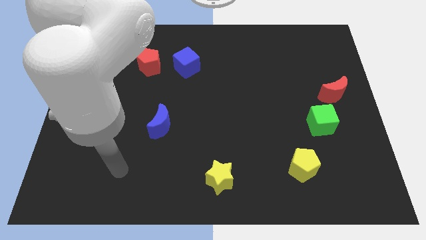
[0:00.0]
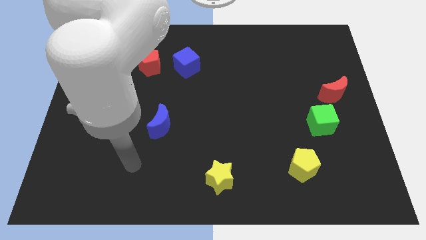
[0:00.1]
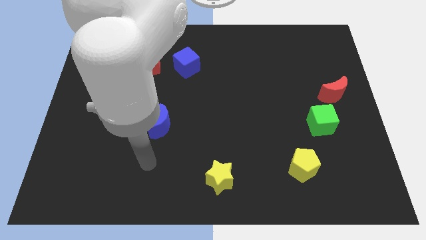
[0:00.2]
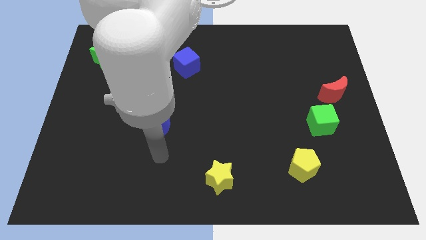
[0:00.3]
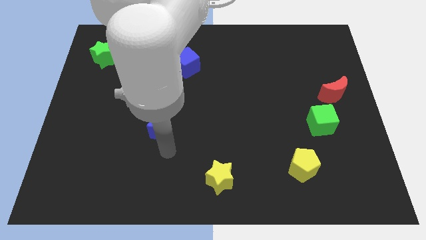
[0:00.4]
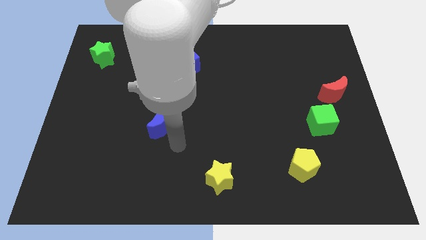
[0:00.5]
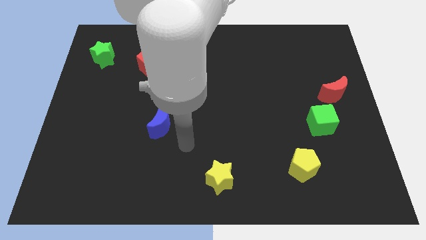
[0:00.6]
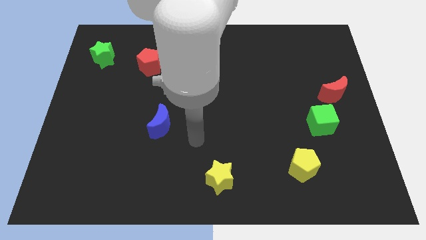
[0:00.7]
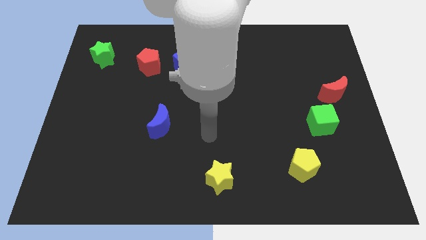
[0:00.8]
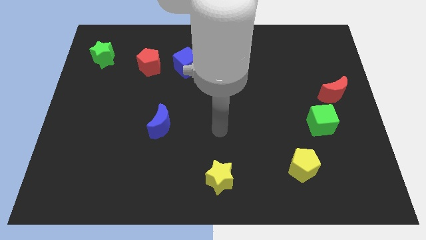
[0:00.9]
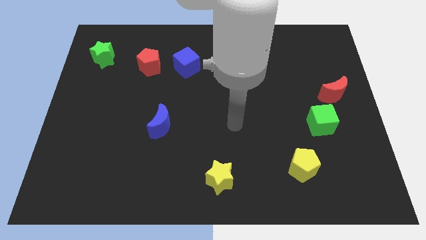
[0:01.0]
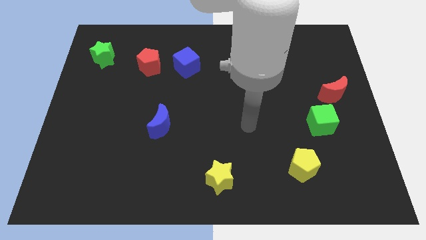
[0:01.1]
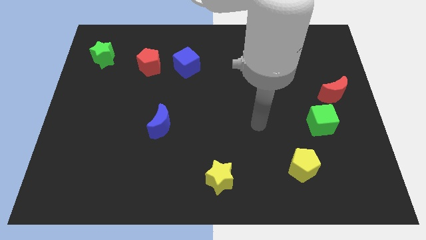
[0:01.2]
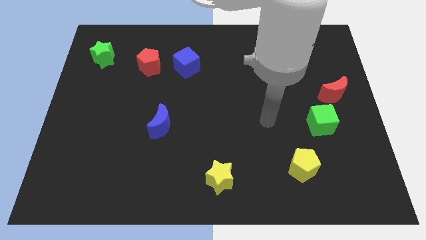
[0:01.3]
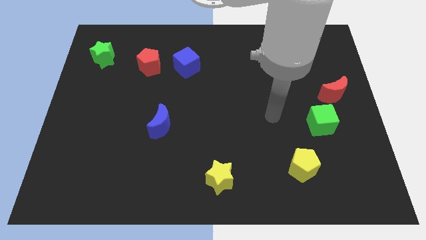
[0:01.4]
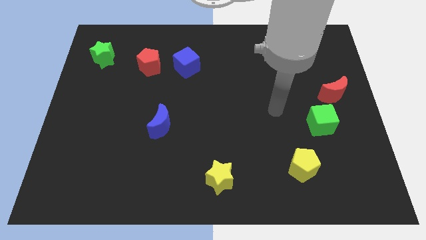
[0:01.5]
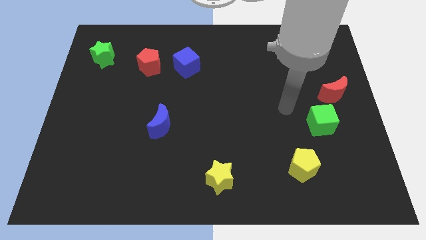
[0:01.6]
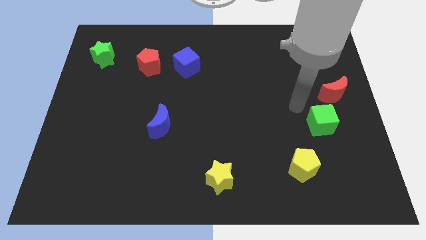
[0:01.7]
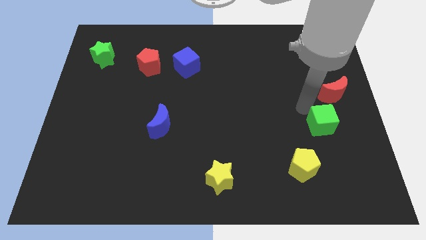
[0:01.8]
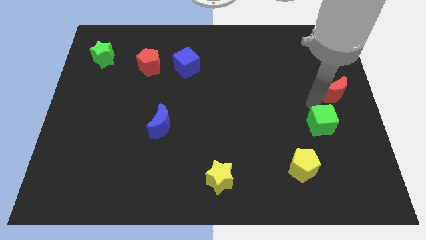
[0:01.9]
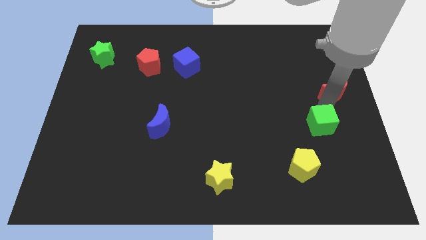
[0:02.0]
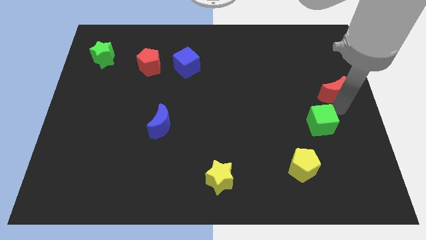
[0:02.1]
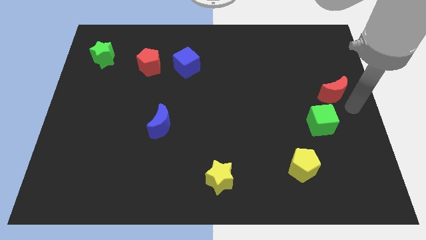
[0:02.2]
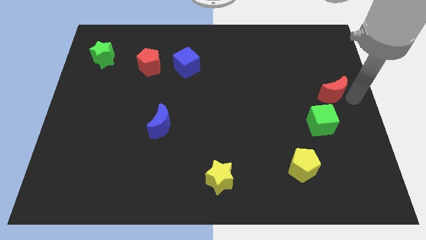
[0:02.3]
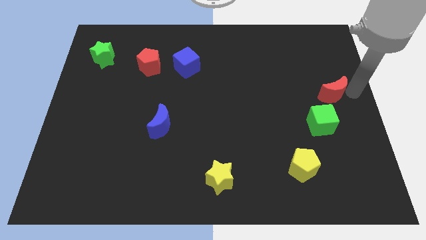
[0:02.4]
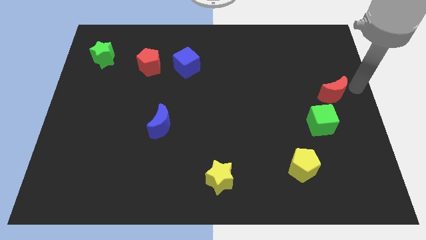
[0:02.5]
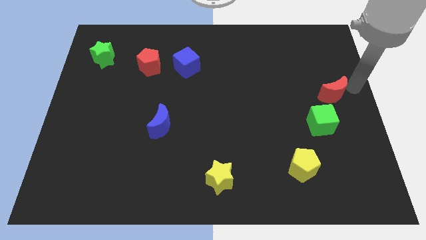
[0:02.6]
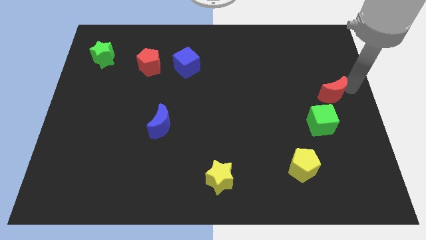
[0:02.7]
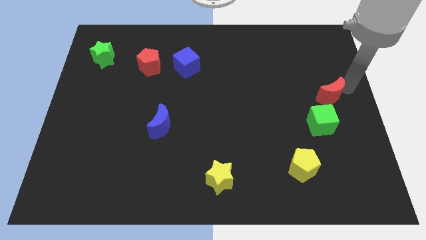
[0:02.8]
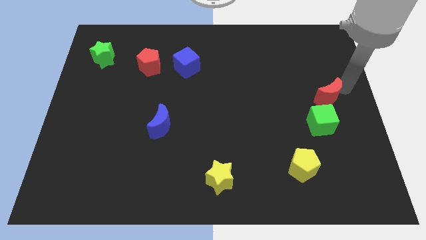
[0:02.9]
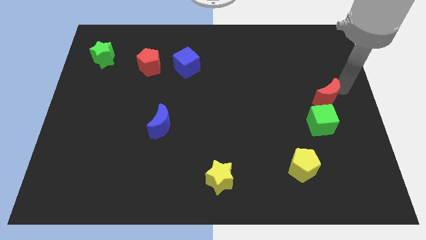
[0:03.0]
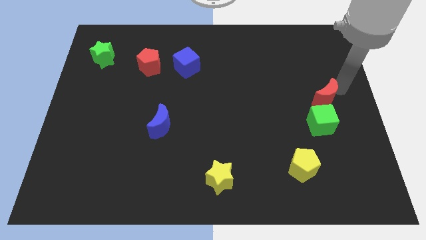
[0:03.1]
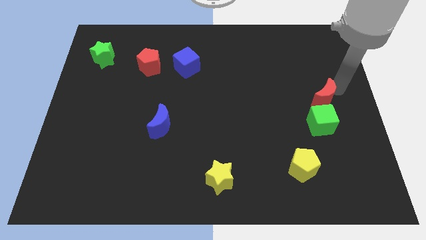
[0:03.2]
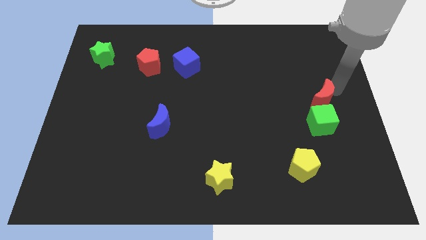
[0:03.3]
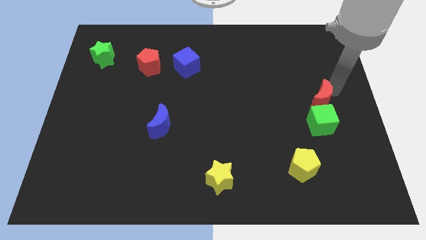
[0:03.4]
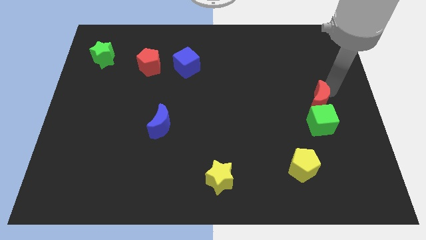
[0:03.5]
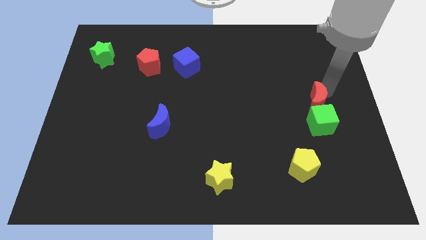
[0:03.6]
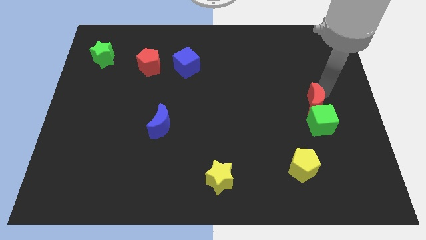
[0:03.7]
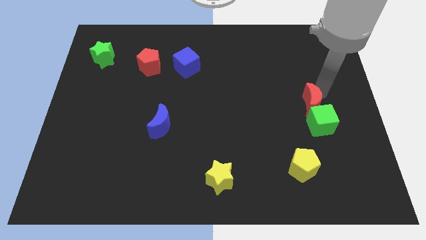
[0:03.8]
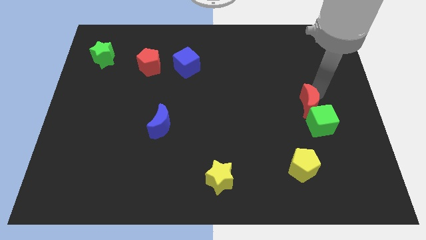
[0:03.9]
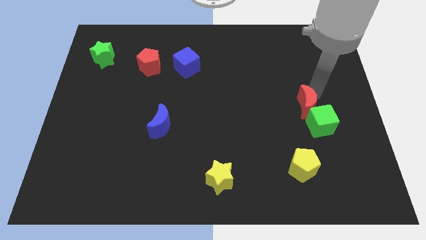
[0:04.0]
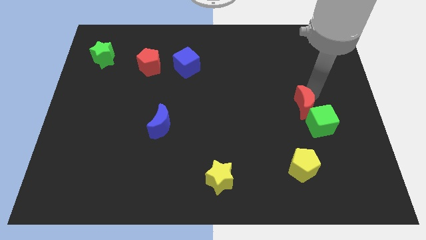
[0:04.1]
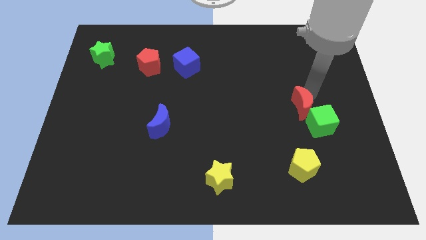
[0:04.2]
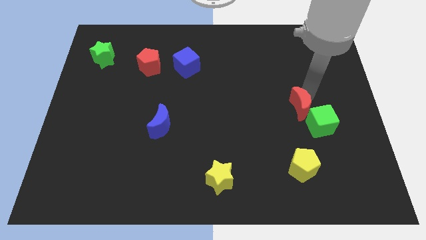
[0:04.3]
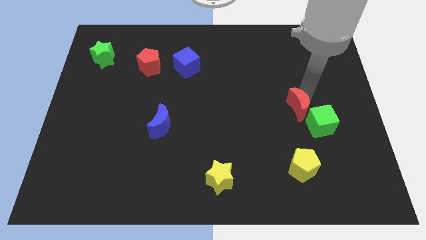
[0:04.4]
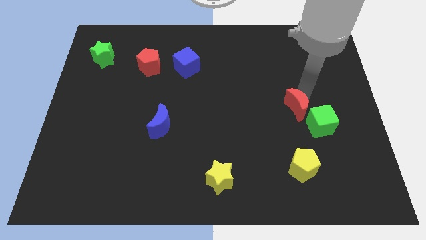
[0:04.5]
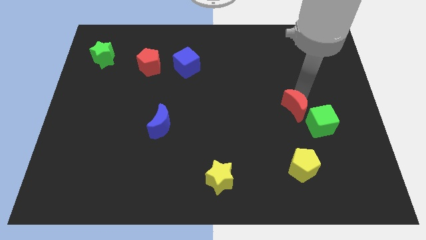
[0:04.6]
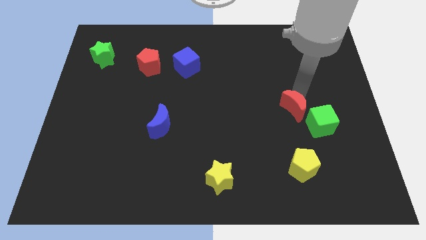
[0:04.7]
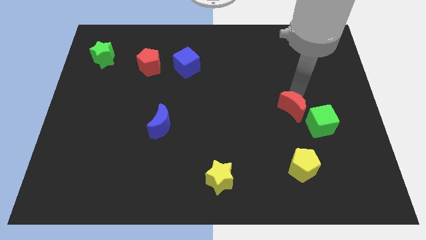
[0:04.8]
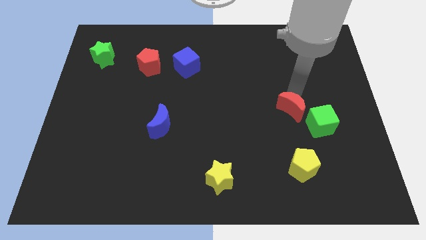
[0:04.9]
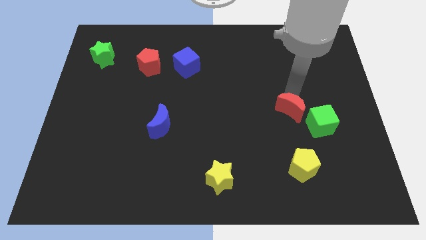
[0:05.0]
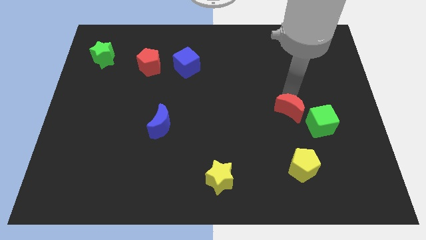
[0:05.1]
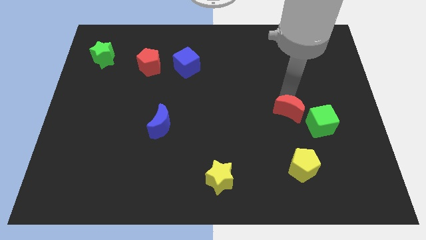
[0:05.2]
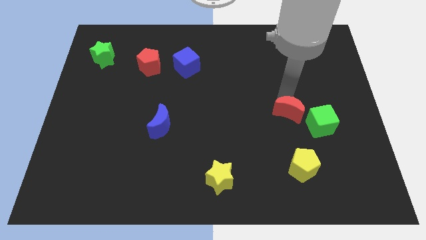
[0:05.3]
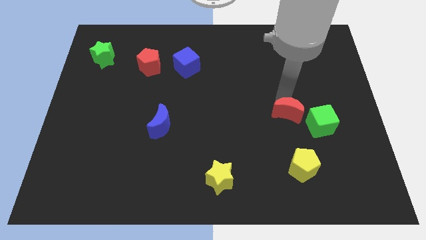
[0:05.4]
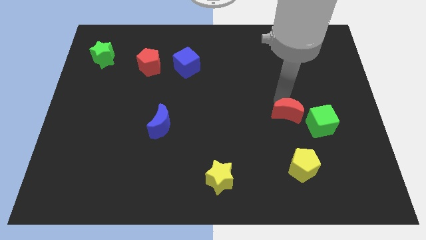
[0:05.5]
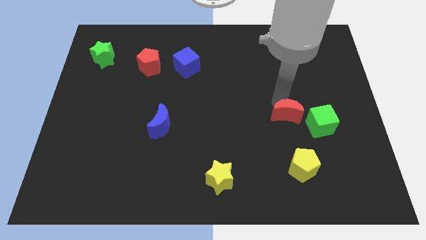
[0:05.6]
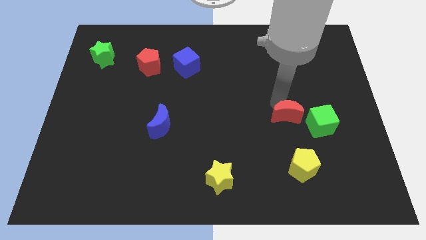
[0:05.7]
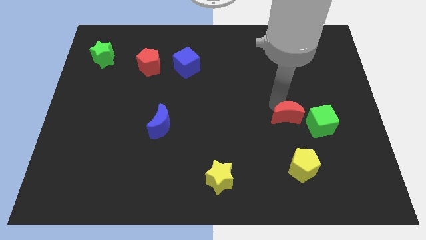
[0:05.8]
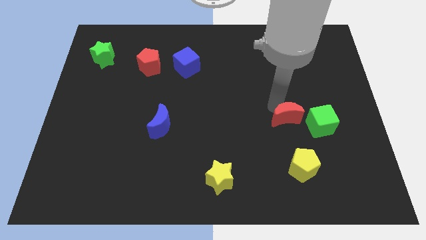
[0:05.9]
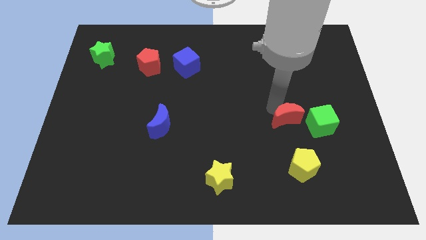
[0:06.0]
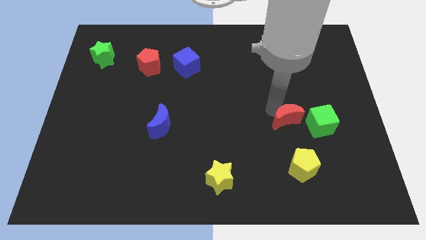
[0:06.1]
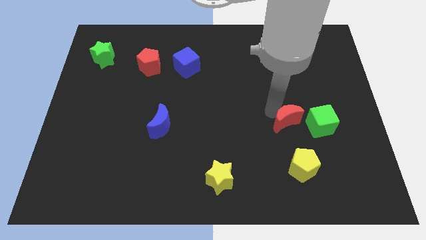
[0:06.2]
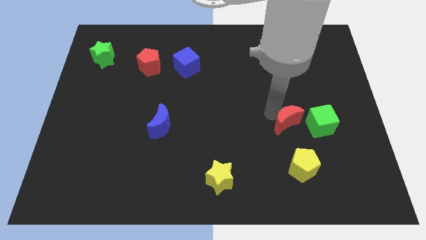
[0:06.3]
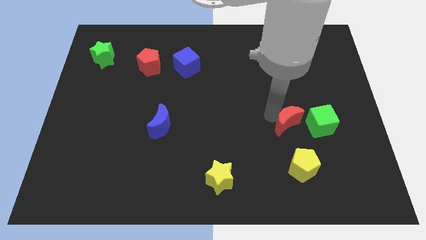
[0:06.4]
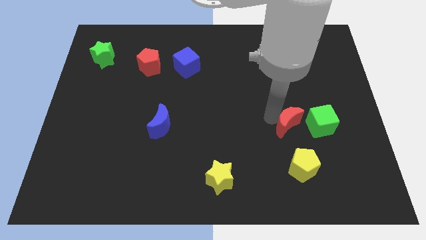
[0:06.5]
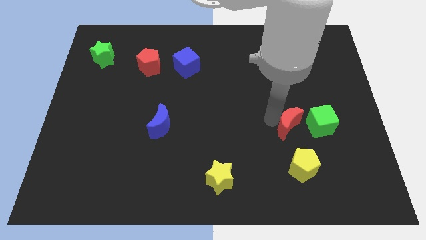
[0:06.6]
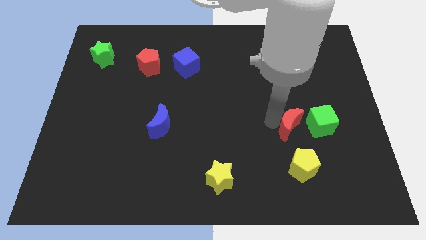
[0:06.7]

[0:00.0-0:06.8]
slide the red moon diagonally down and to the left of the green cube

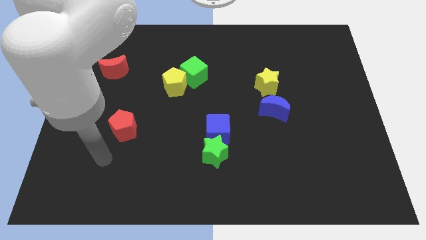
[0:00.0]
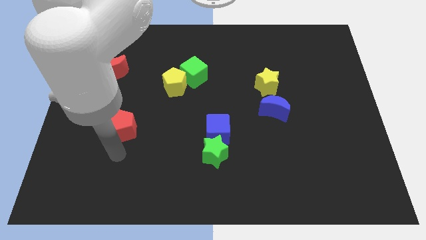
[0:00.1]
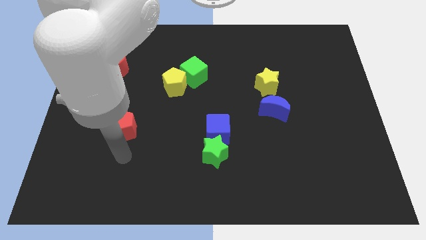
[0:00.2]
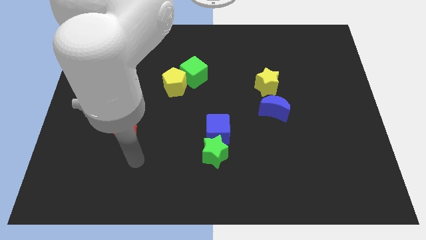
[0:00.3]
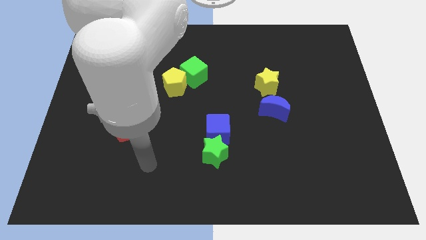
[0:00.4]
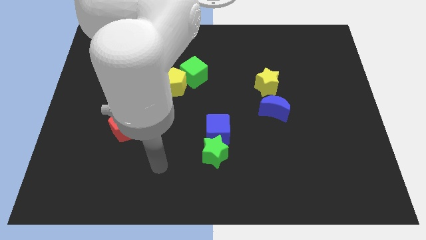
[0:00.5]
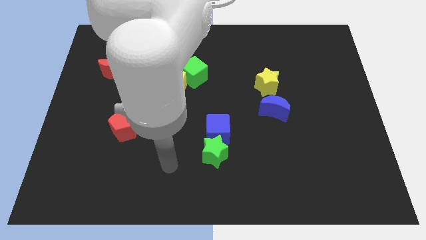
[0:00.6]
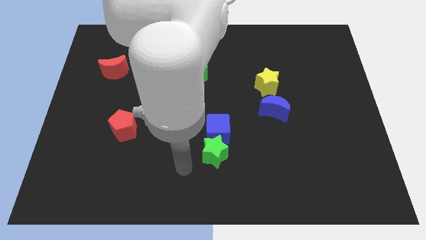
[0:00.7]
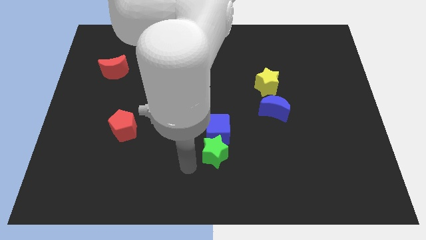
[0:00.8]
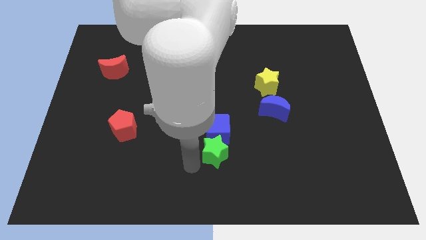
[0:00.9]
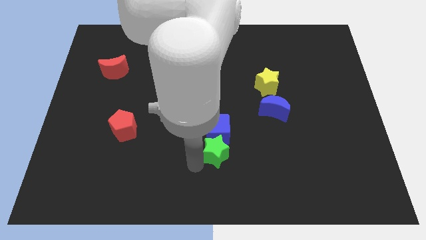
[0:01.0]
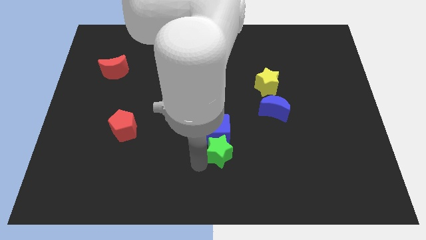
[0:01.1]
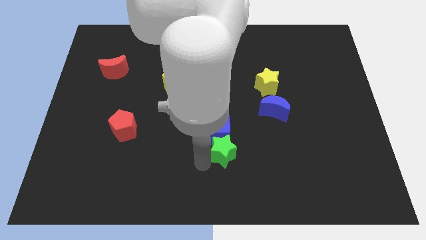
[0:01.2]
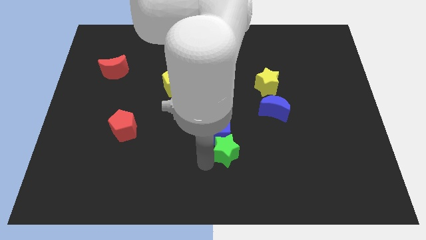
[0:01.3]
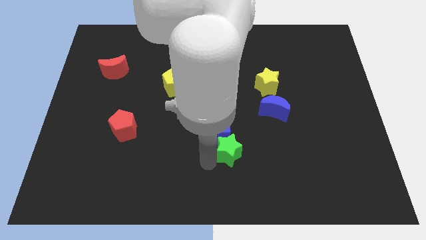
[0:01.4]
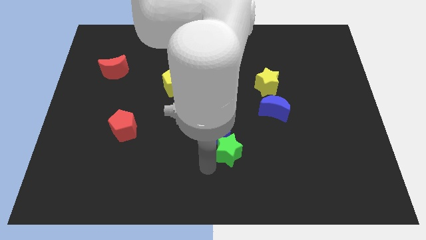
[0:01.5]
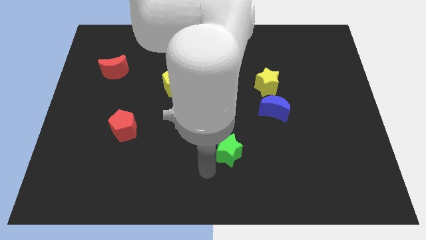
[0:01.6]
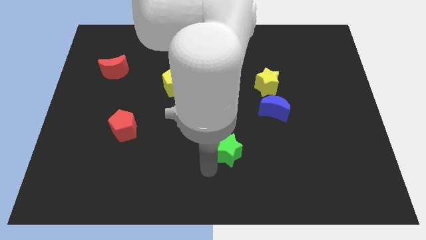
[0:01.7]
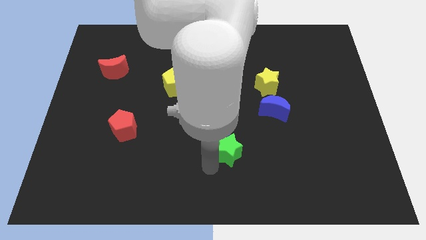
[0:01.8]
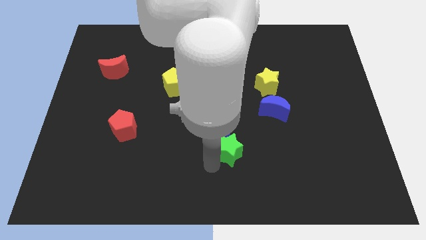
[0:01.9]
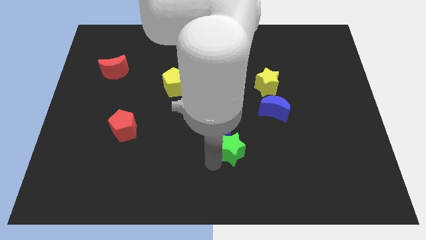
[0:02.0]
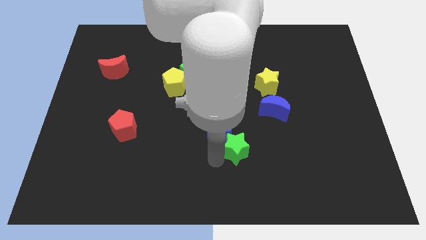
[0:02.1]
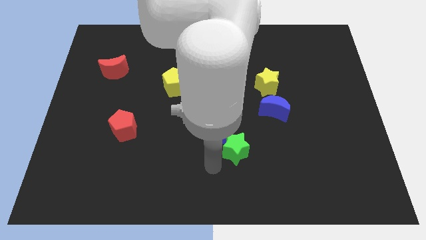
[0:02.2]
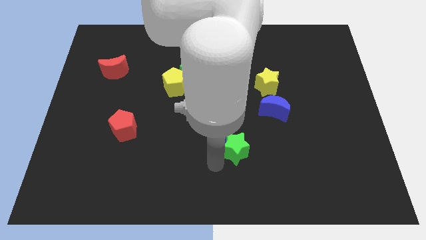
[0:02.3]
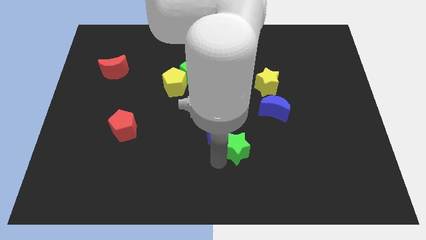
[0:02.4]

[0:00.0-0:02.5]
slide the green star right of the blue cube
